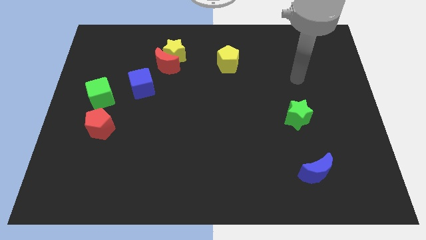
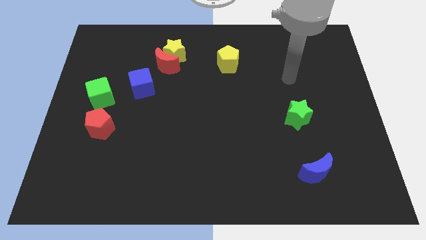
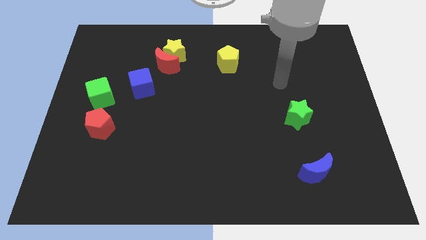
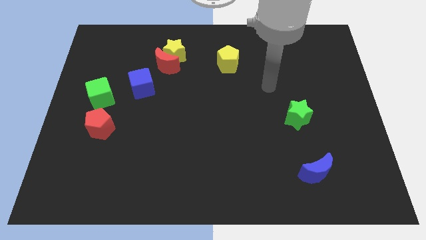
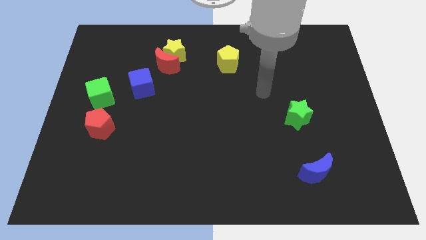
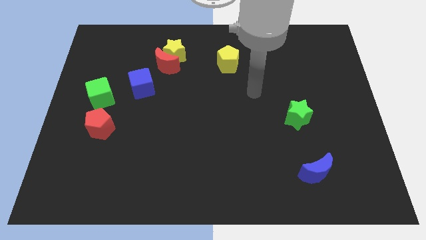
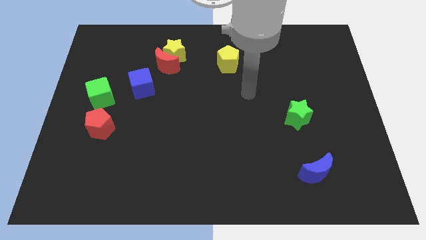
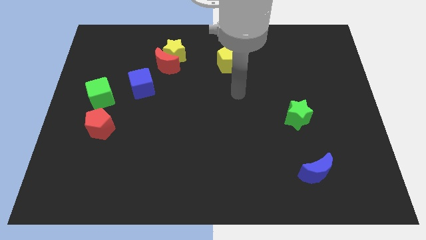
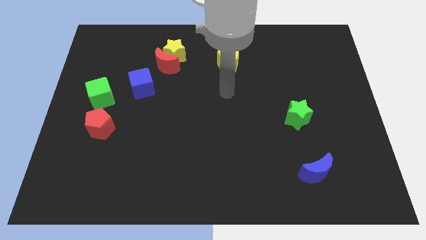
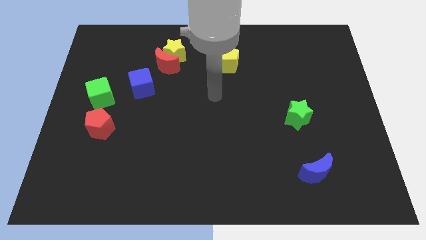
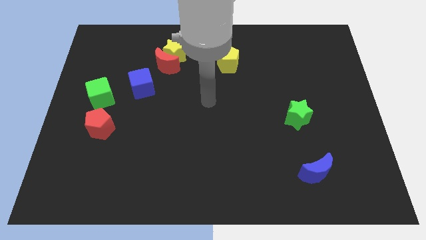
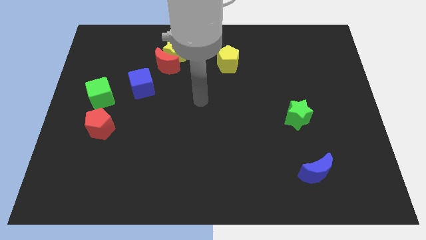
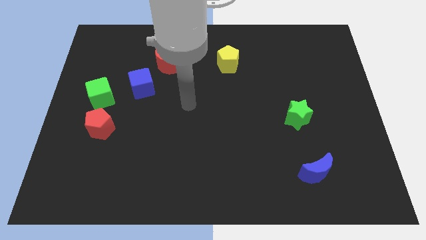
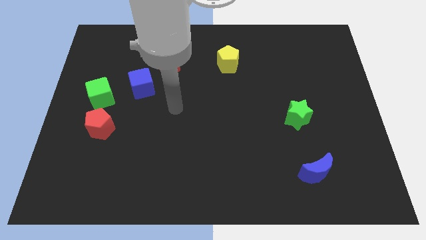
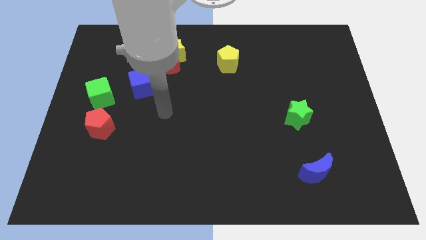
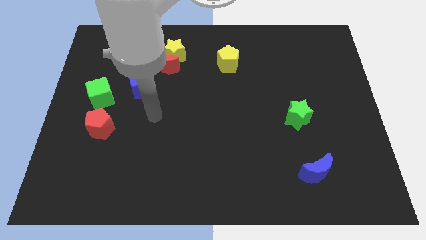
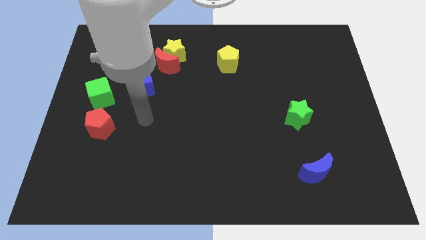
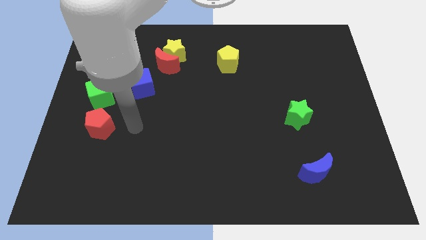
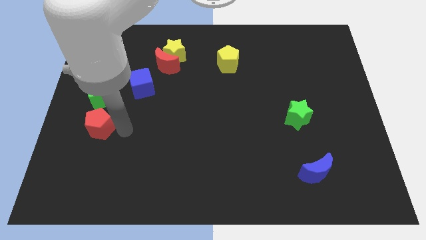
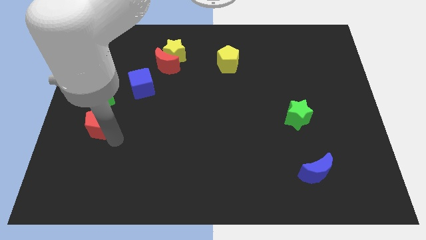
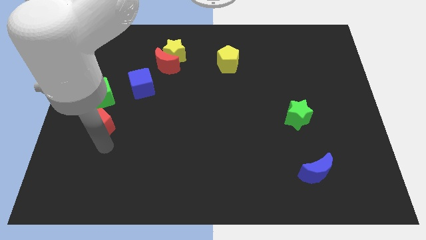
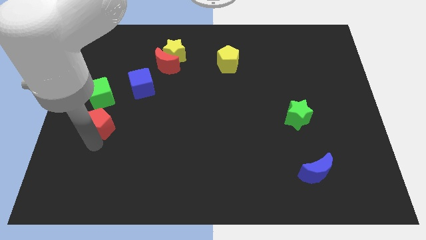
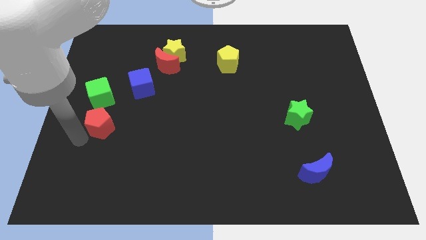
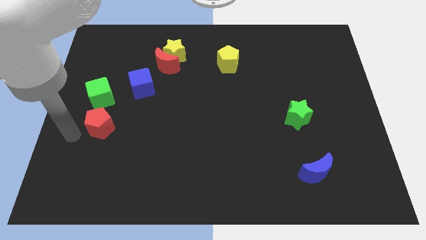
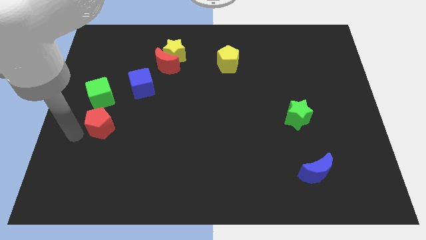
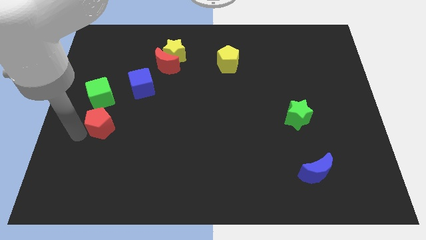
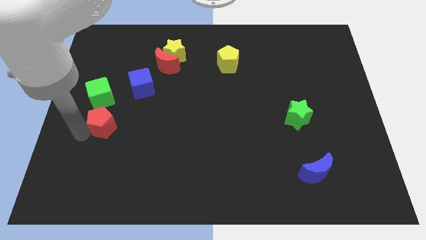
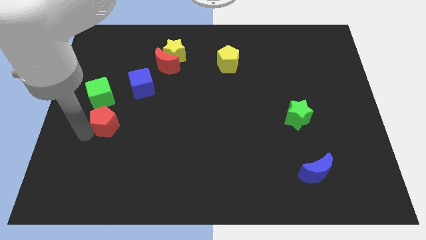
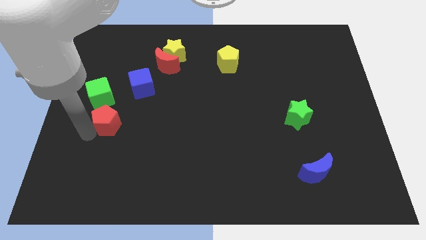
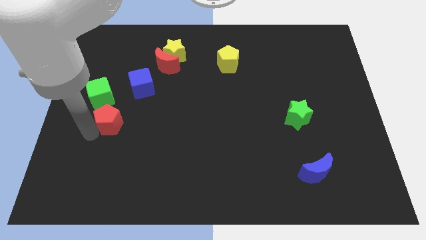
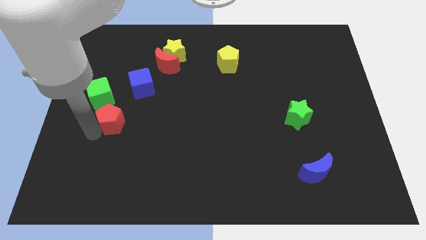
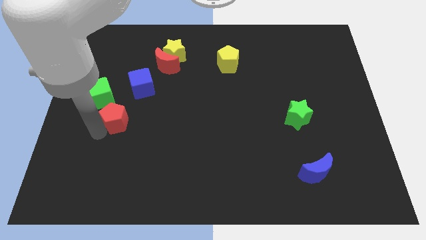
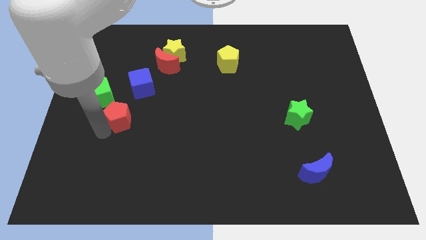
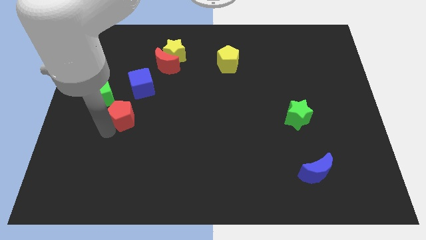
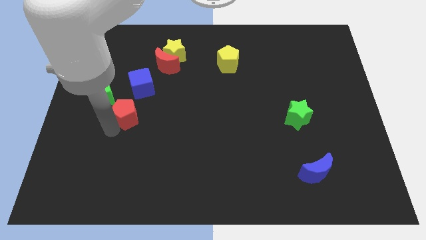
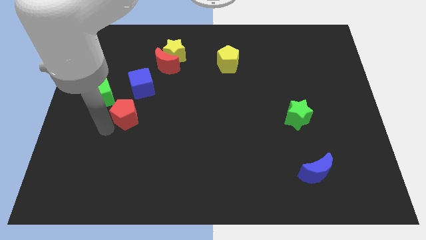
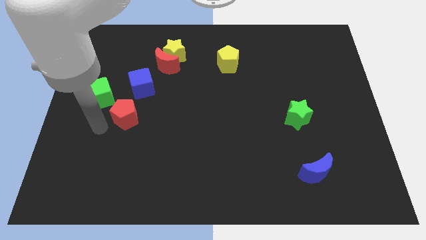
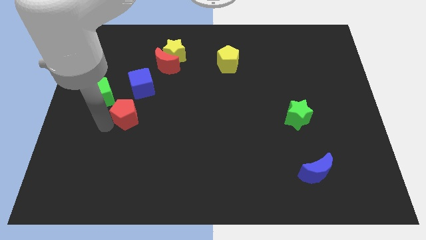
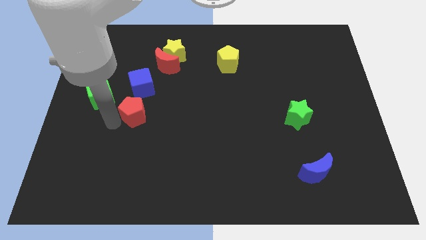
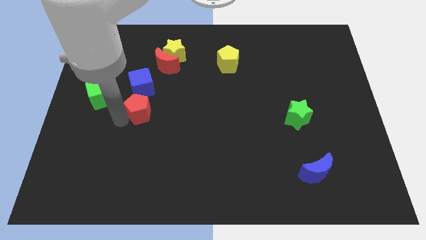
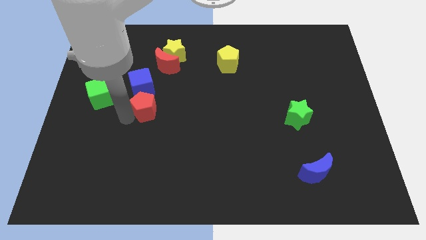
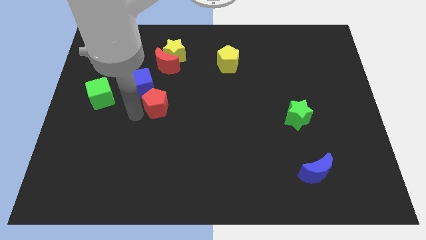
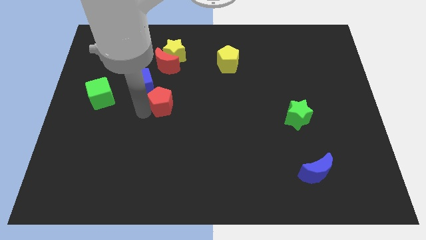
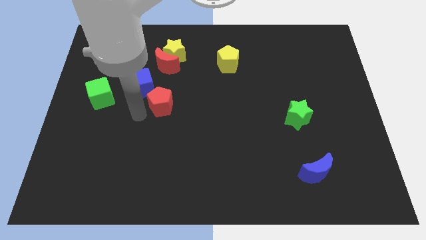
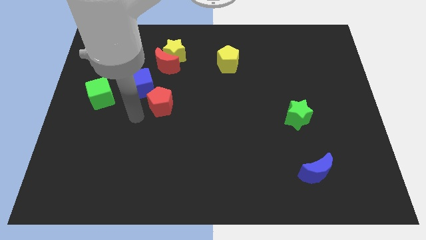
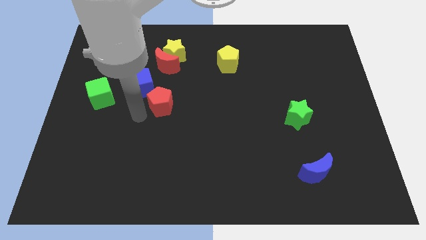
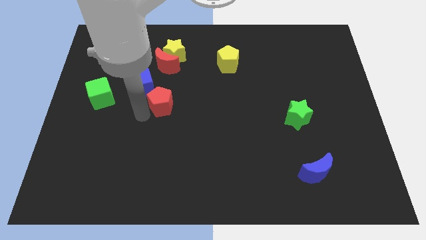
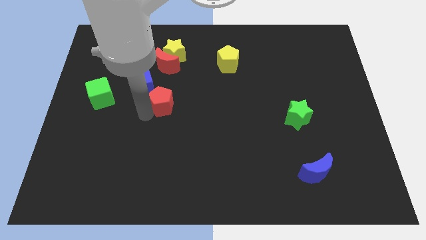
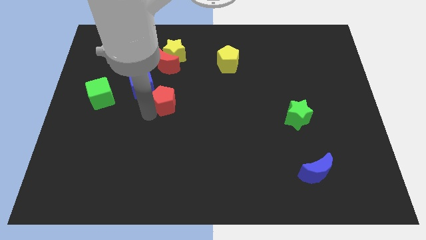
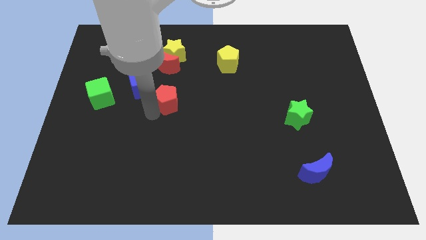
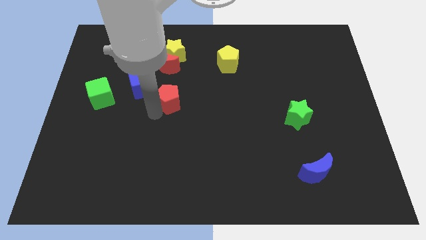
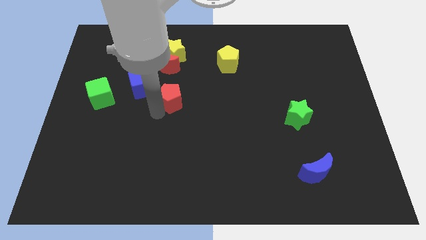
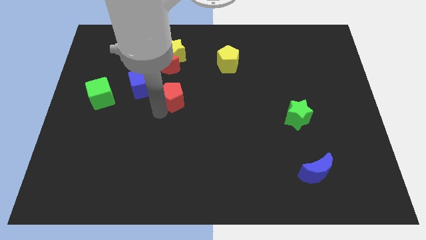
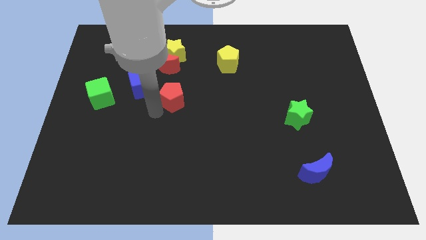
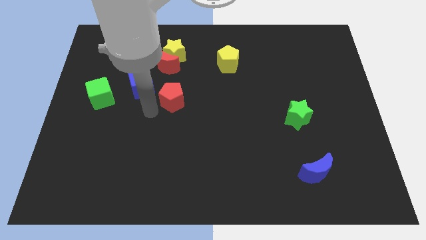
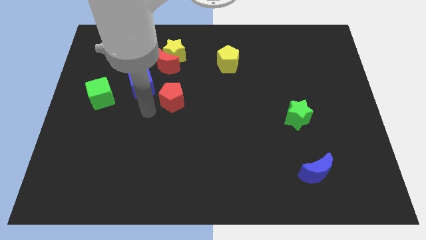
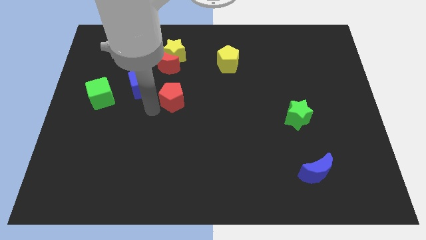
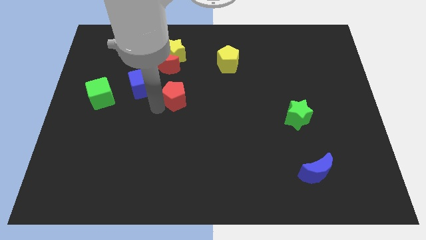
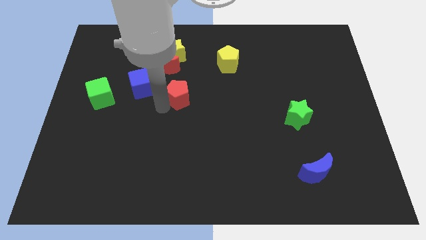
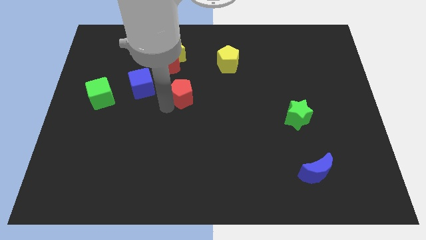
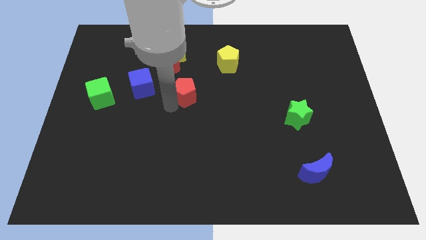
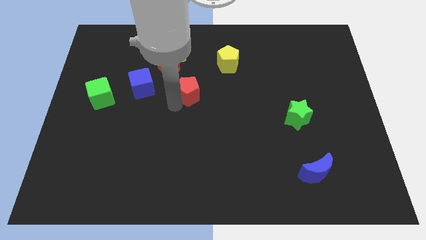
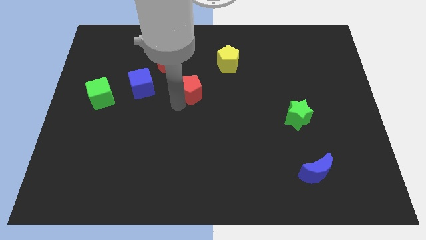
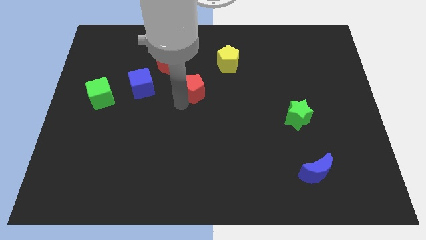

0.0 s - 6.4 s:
push the red pentagon to the bottom left of the yellow pentagon

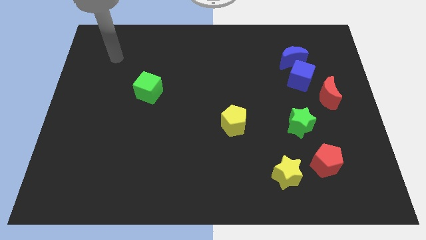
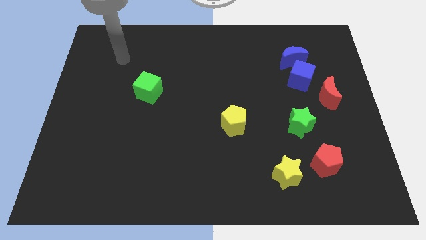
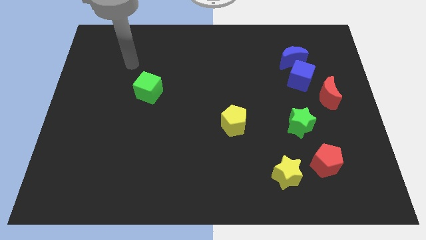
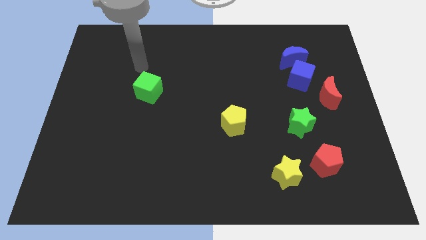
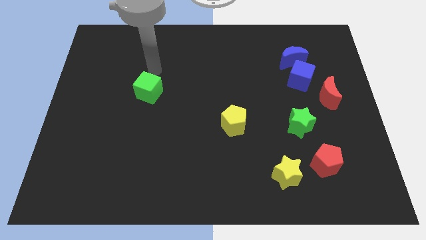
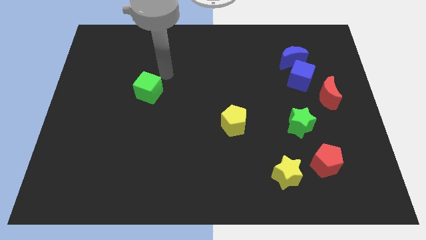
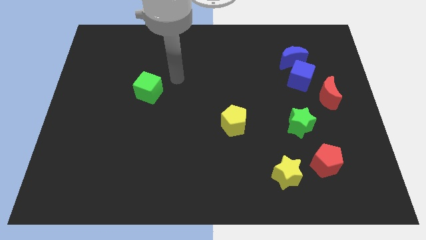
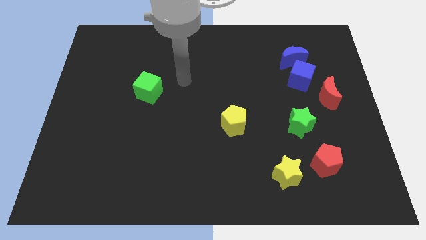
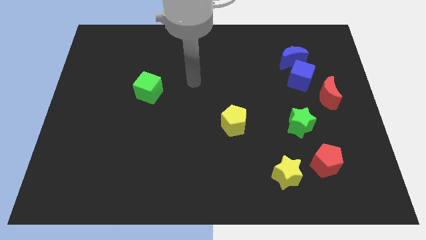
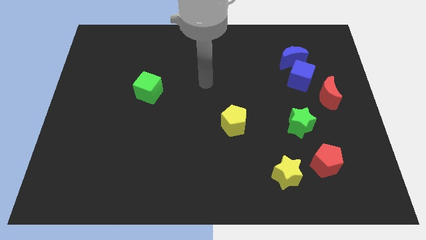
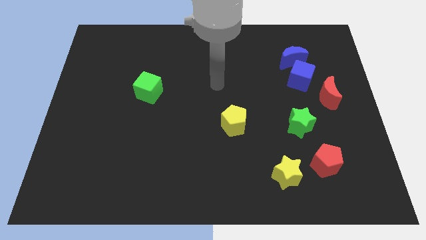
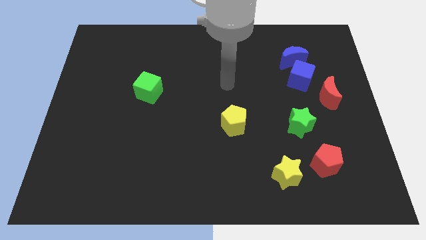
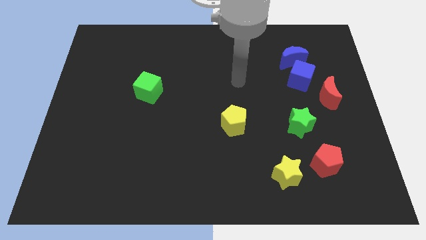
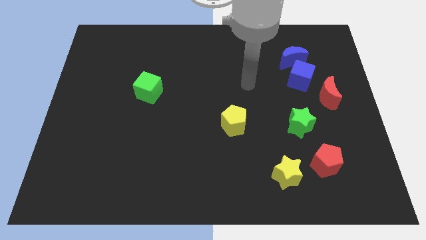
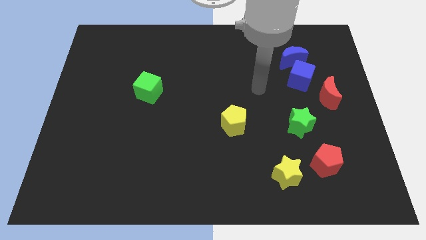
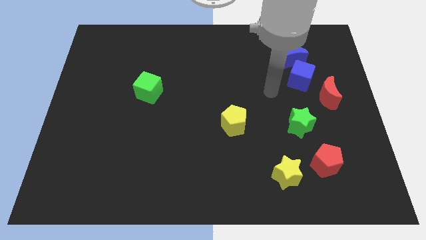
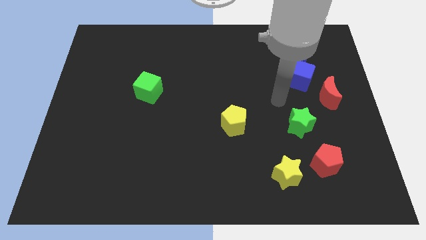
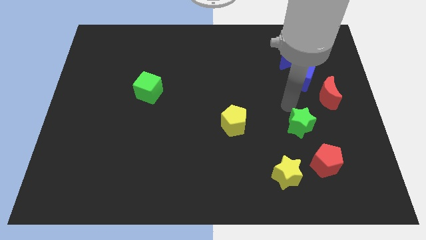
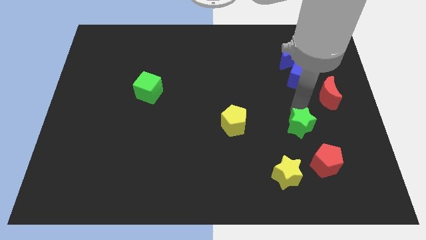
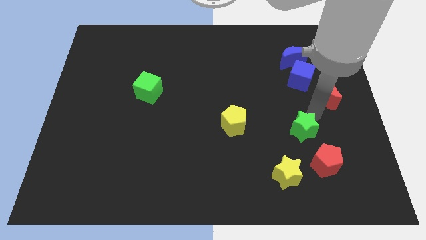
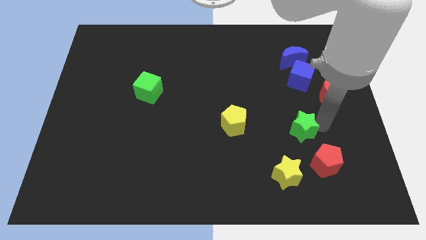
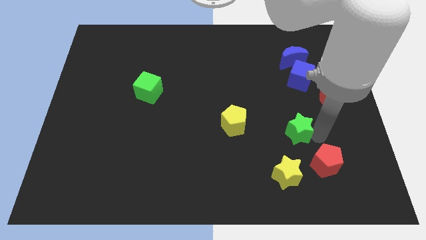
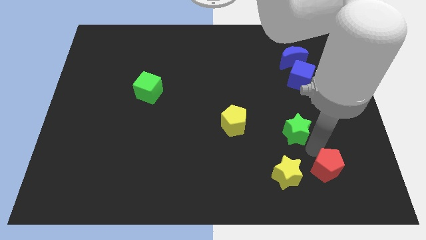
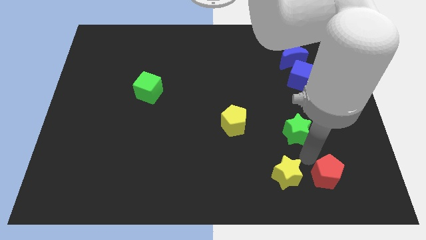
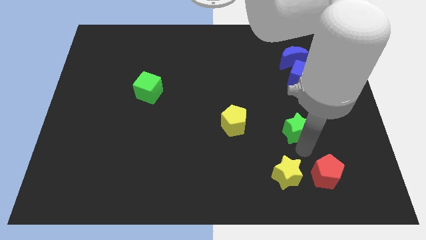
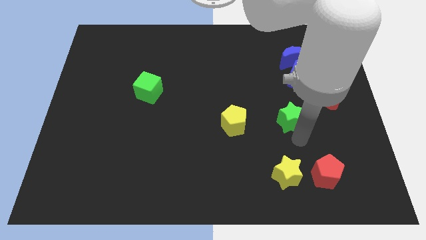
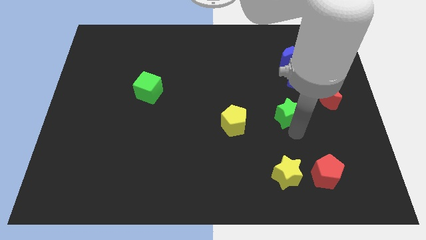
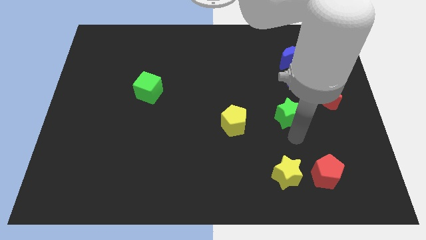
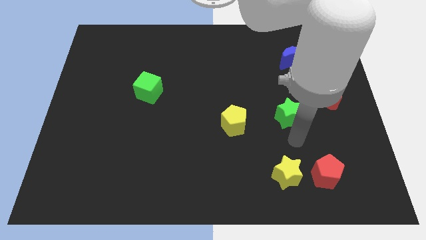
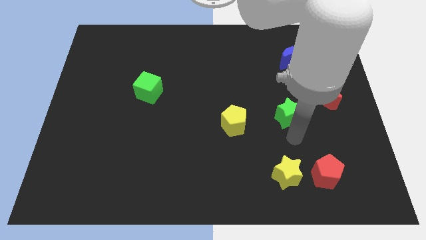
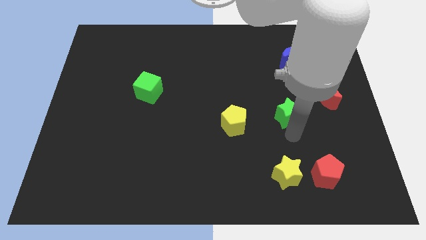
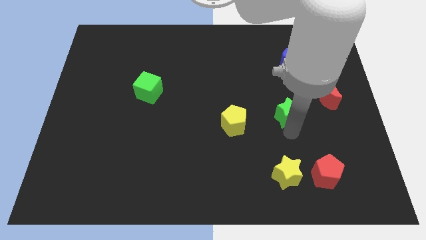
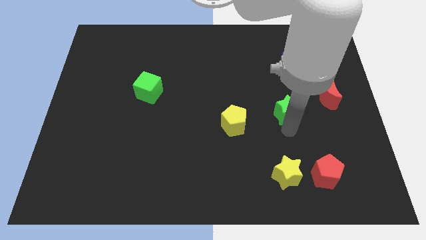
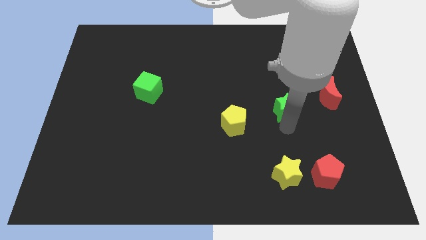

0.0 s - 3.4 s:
move the green star to the bottom left of the blue cube
